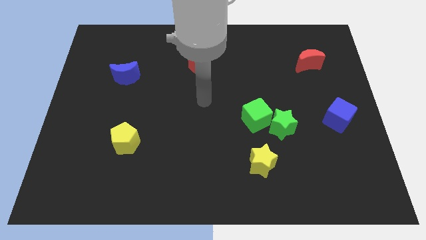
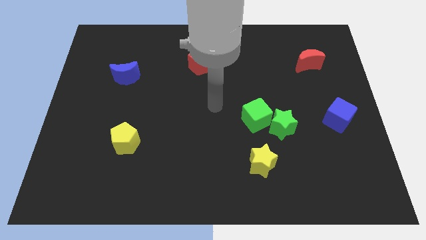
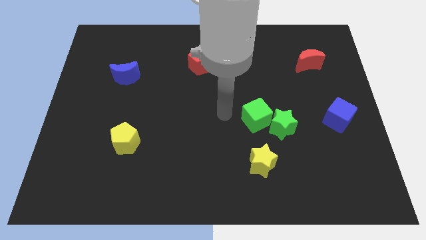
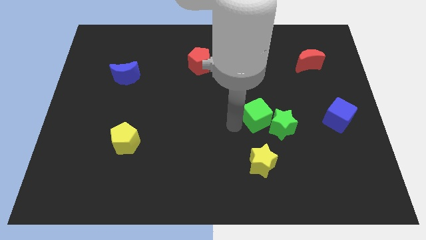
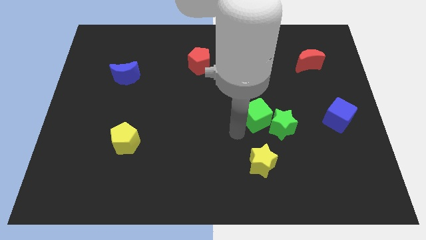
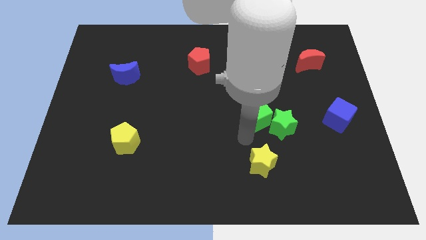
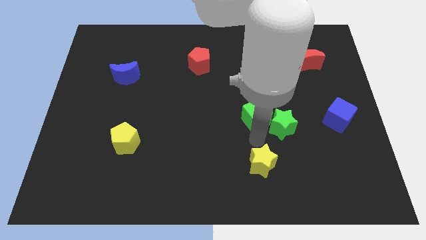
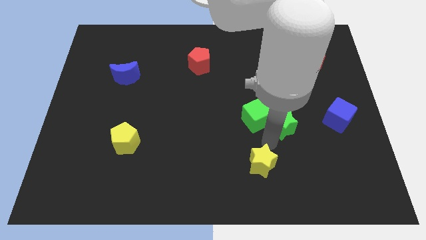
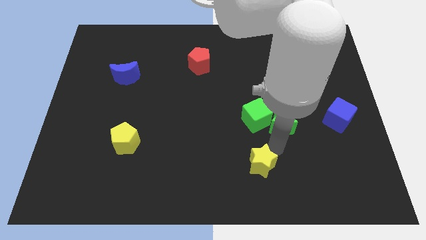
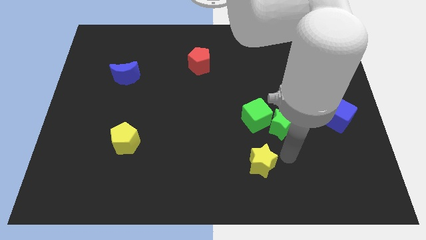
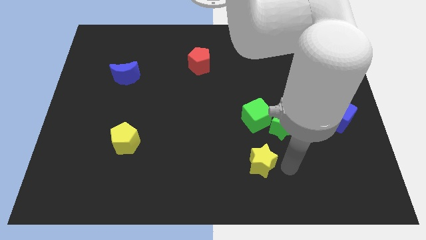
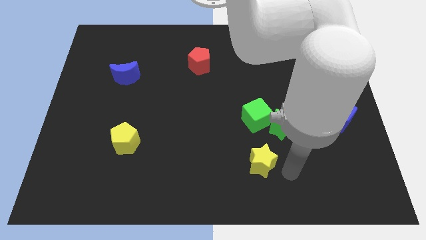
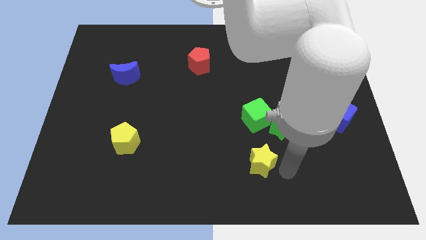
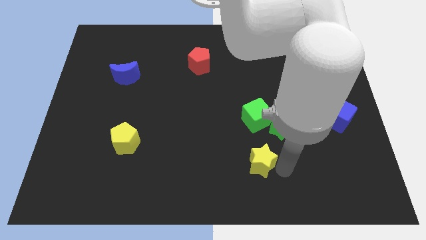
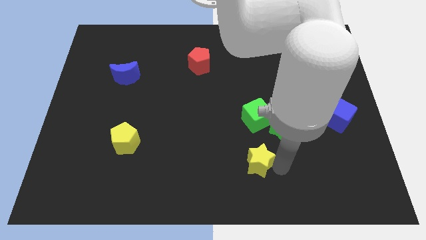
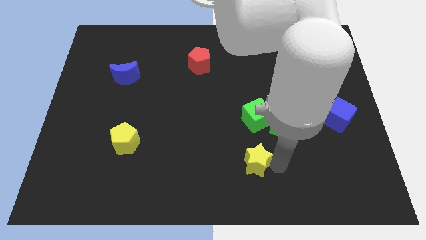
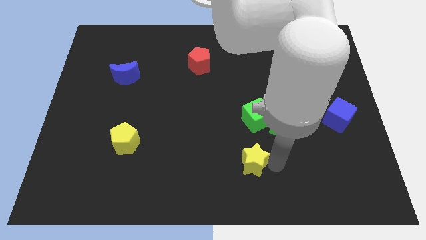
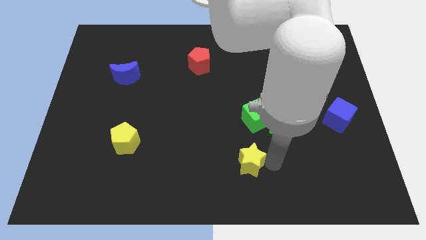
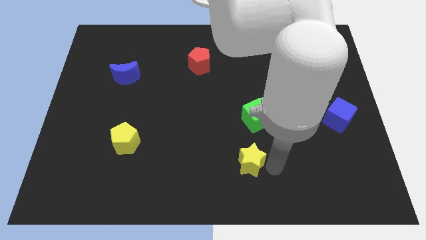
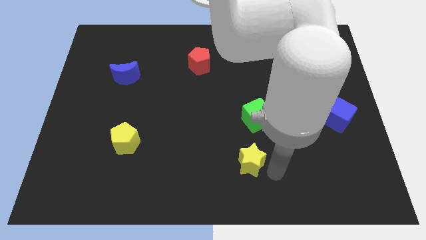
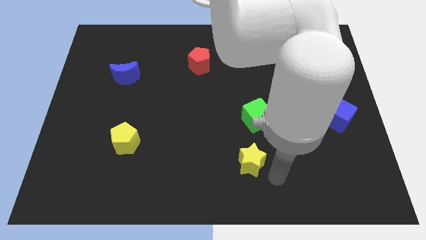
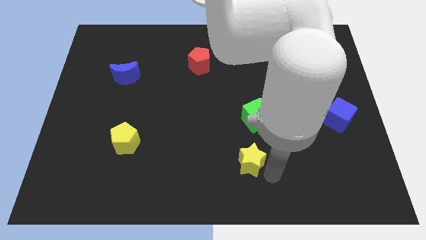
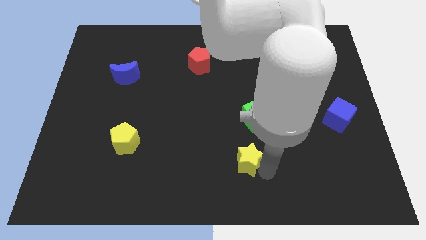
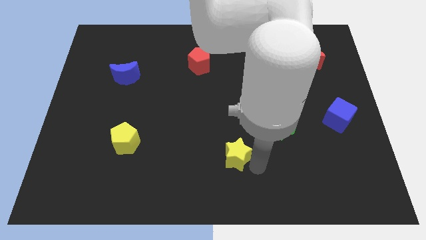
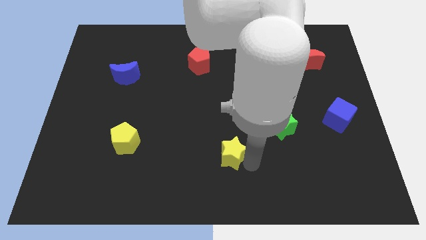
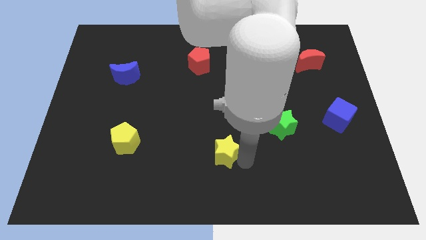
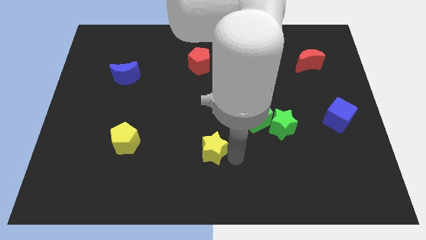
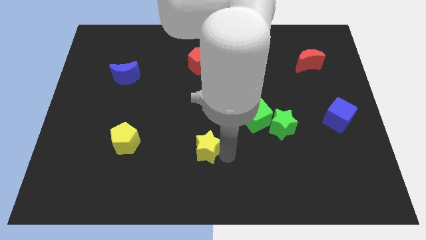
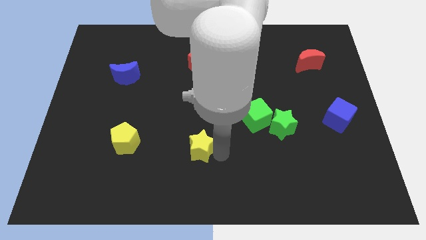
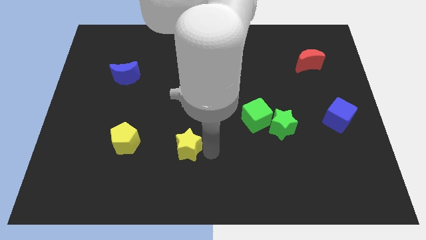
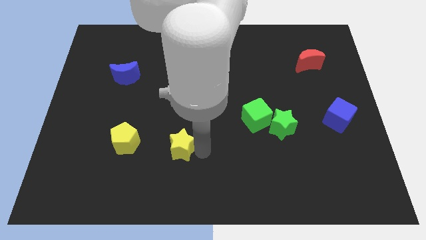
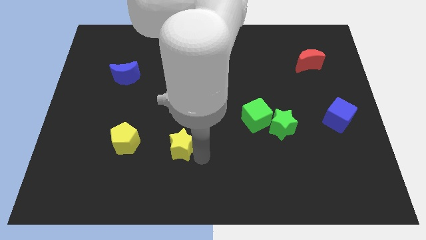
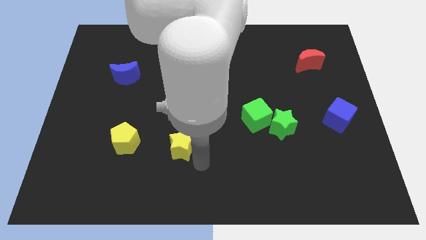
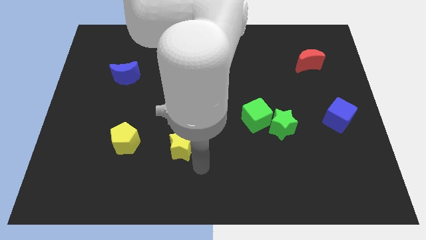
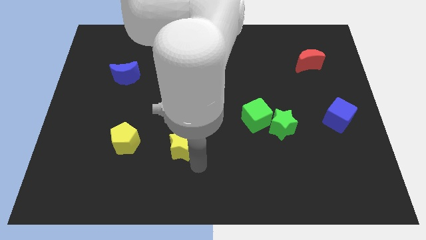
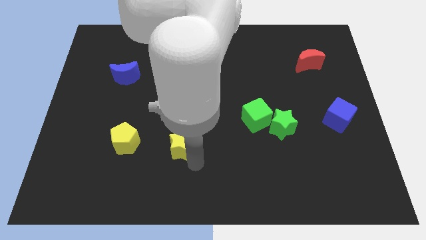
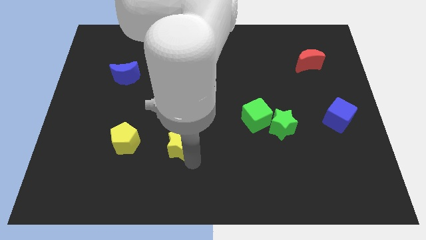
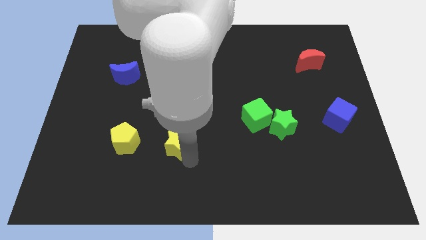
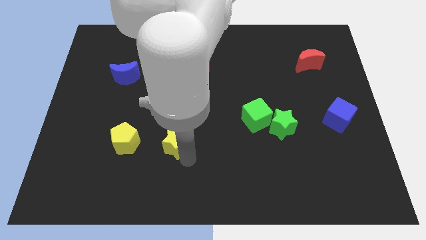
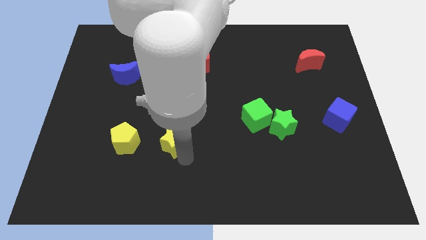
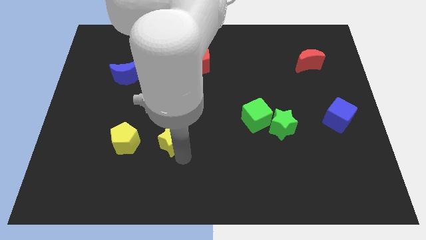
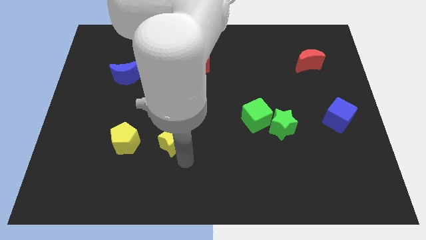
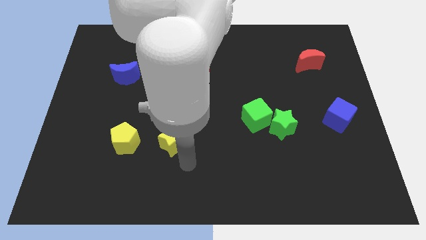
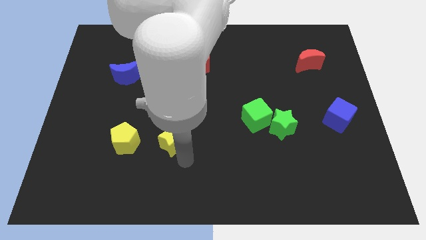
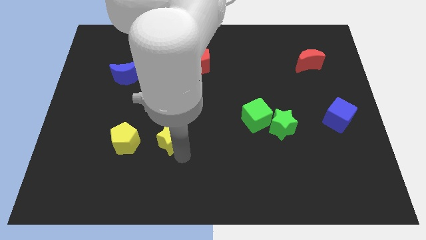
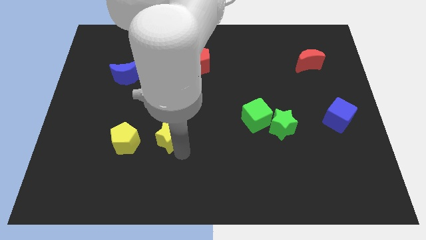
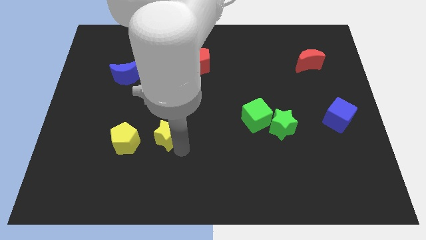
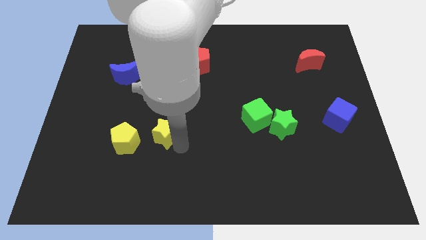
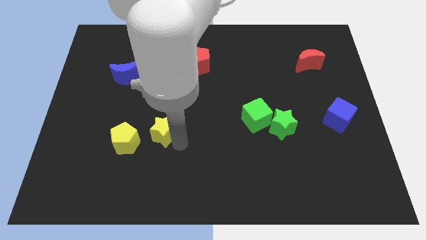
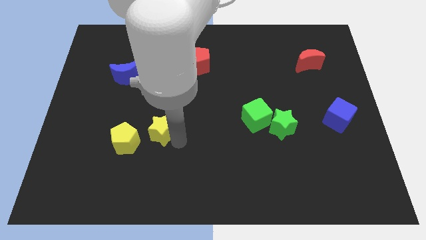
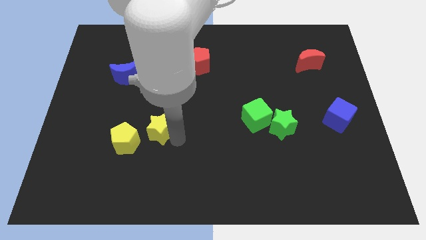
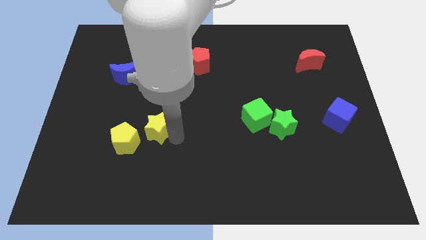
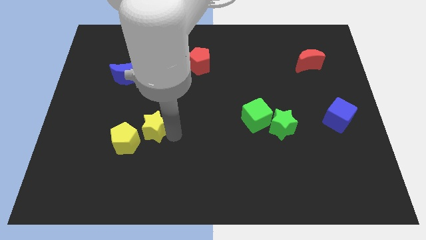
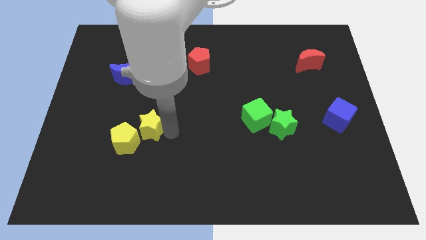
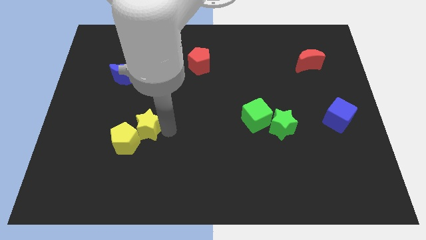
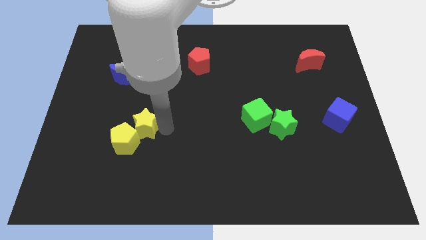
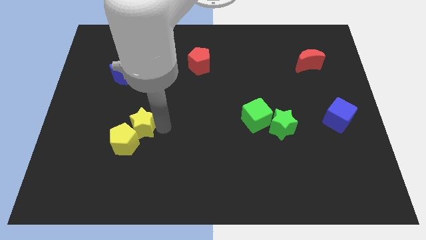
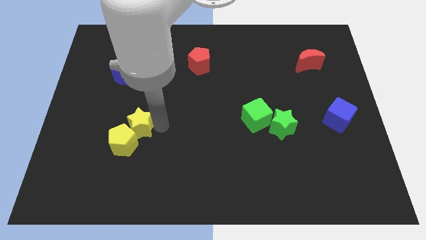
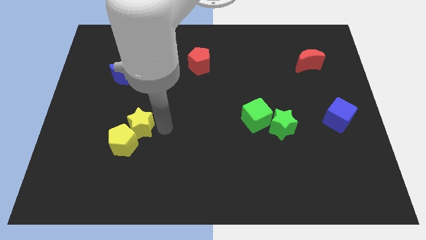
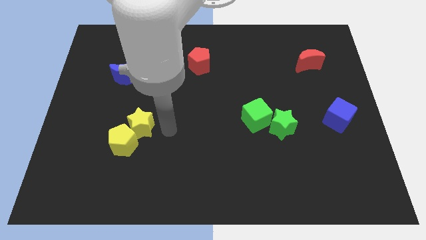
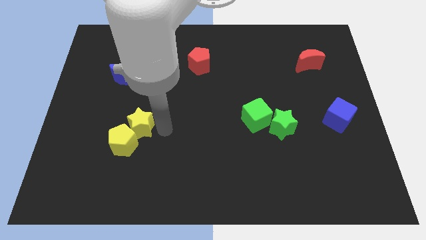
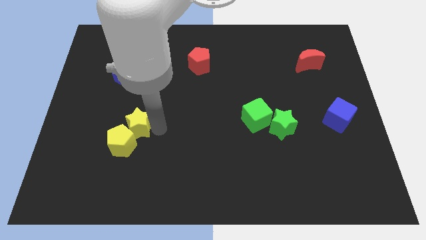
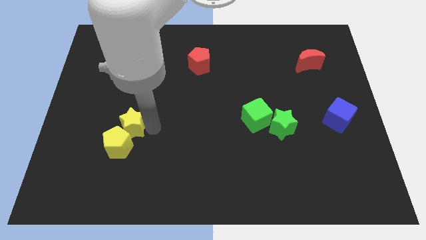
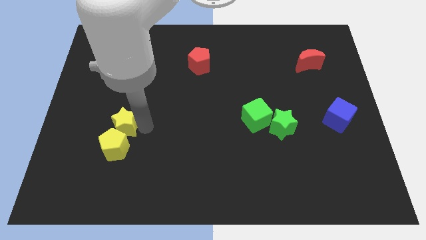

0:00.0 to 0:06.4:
put the yellow star diagonally up and to the left of the yellow pentagon
